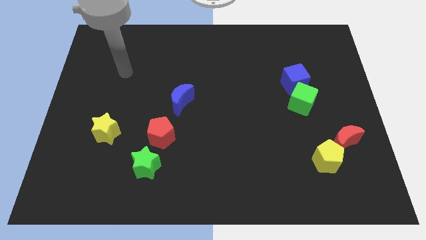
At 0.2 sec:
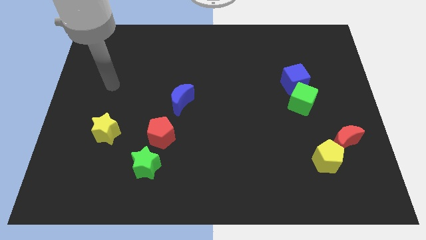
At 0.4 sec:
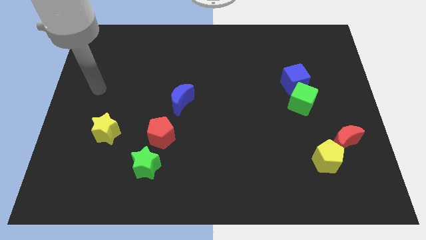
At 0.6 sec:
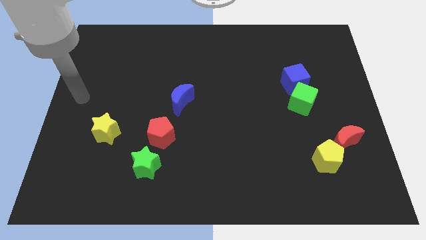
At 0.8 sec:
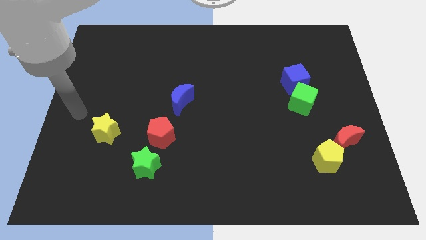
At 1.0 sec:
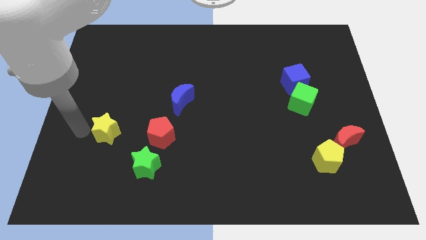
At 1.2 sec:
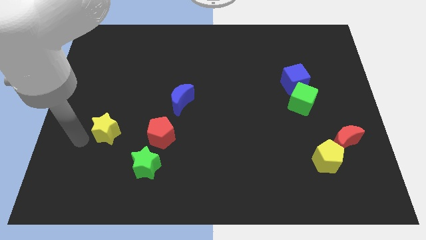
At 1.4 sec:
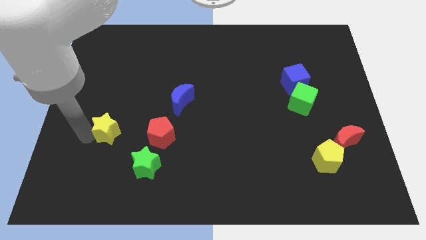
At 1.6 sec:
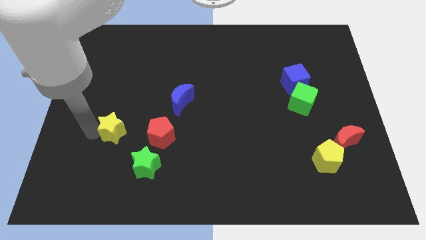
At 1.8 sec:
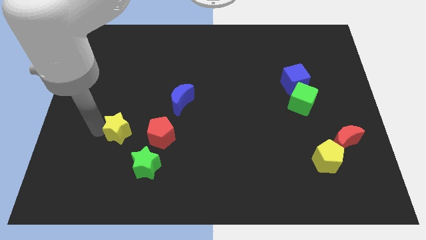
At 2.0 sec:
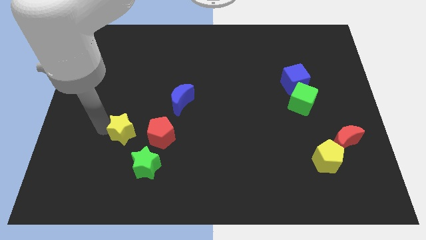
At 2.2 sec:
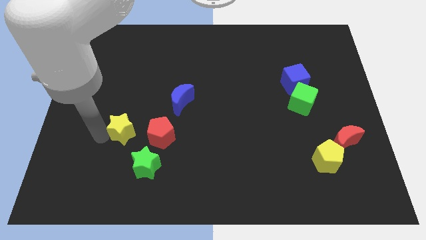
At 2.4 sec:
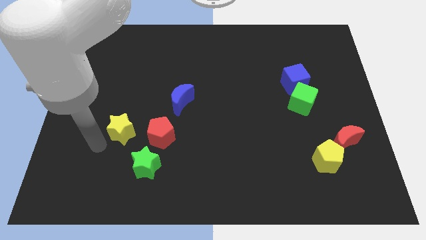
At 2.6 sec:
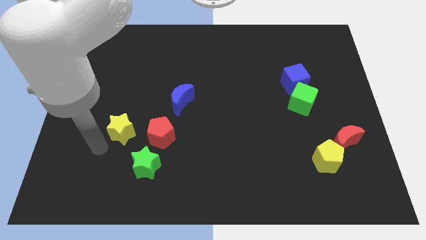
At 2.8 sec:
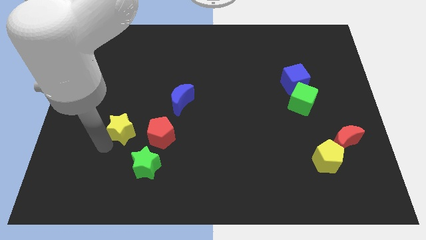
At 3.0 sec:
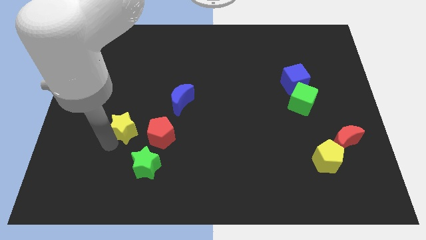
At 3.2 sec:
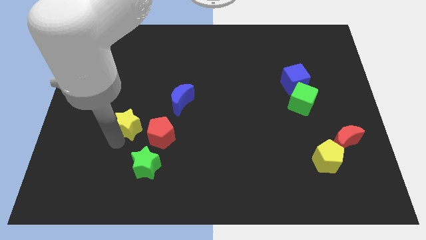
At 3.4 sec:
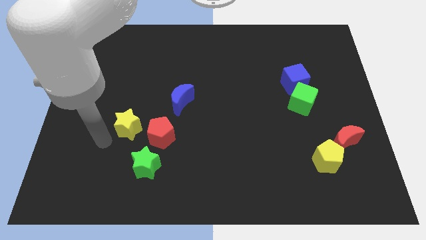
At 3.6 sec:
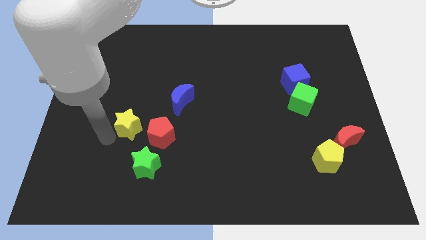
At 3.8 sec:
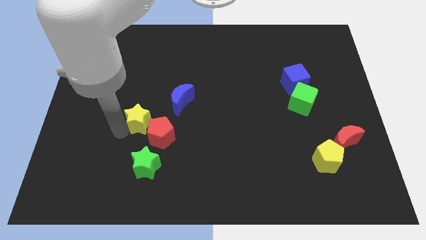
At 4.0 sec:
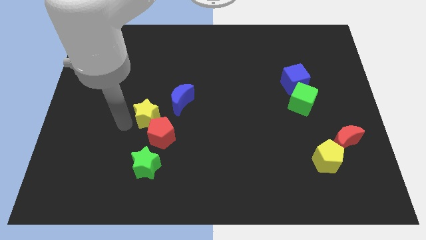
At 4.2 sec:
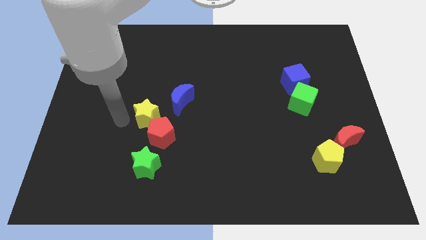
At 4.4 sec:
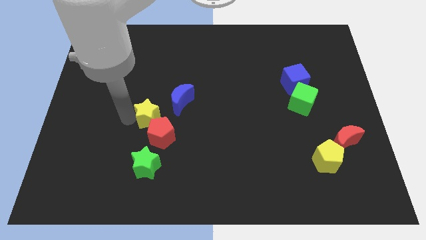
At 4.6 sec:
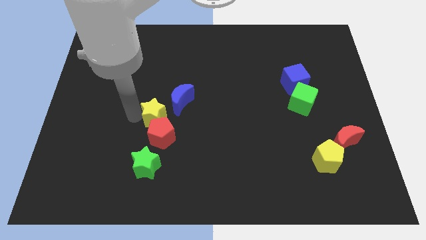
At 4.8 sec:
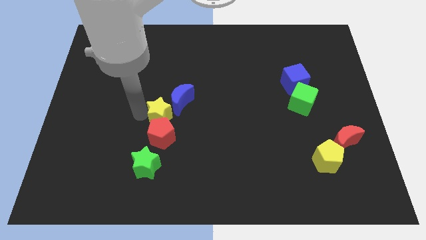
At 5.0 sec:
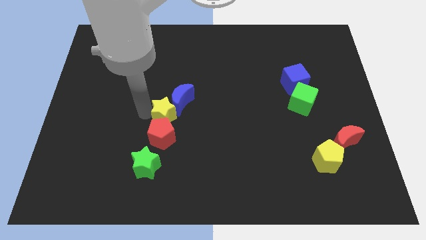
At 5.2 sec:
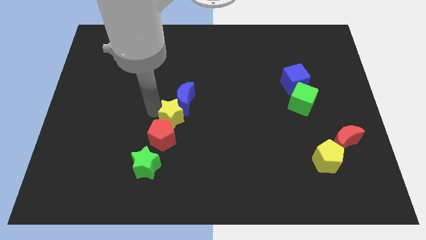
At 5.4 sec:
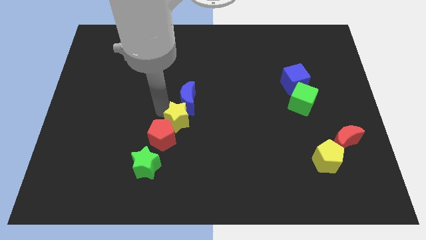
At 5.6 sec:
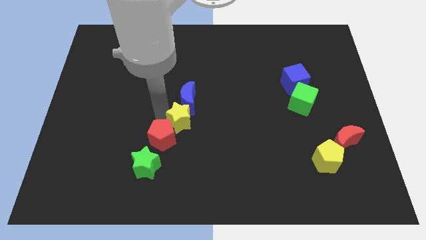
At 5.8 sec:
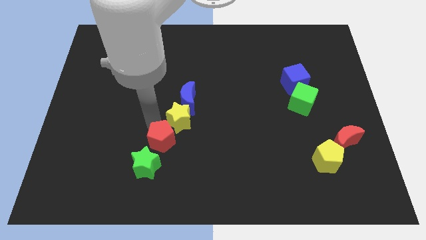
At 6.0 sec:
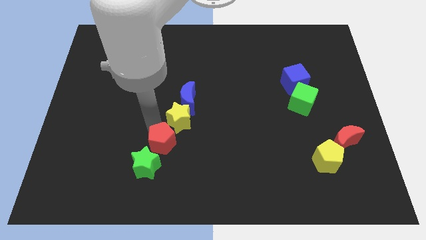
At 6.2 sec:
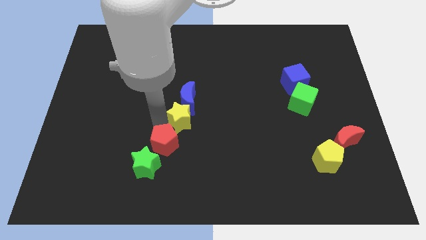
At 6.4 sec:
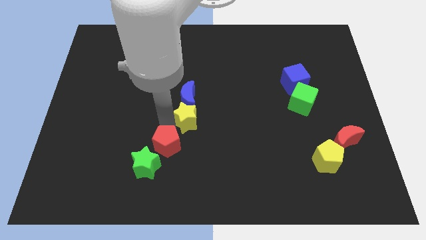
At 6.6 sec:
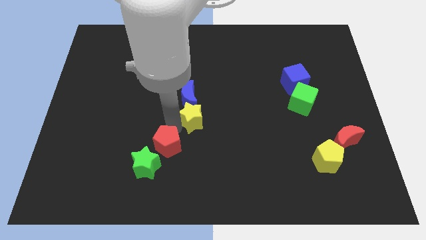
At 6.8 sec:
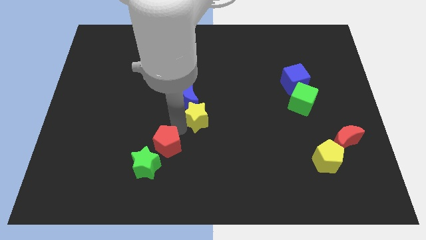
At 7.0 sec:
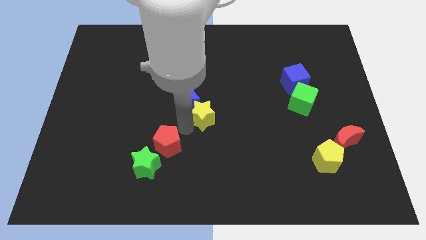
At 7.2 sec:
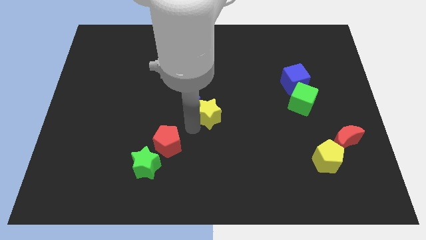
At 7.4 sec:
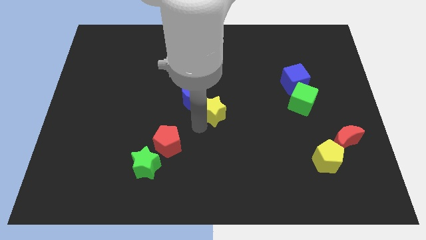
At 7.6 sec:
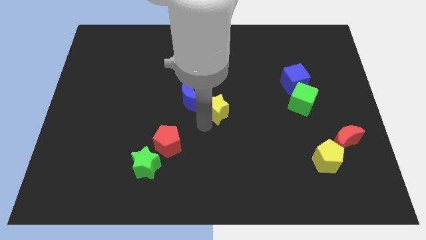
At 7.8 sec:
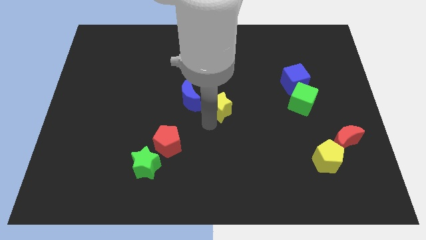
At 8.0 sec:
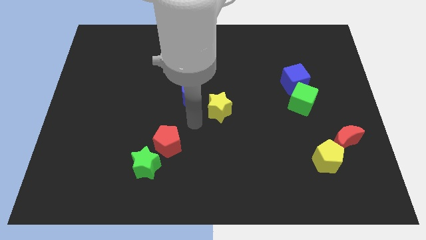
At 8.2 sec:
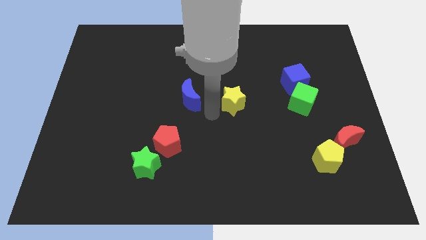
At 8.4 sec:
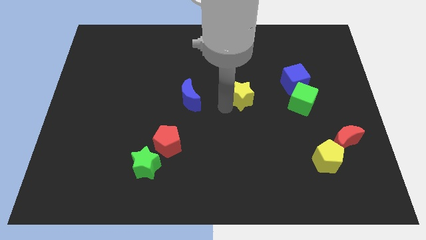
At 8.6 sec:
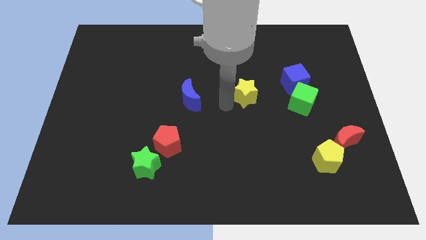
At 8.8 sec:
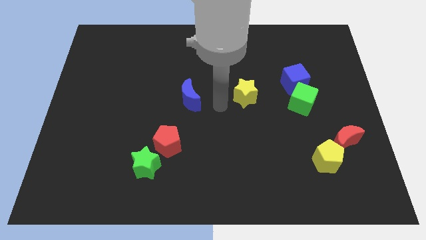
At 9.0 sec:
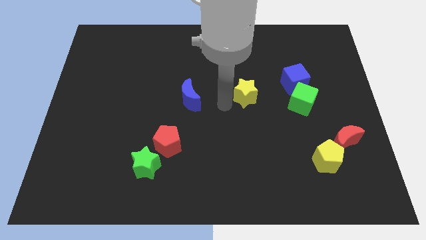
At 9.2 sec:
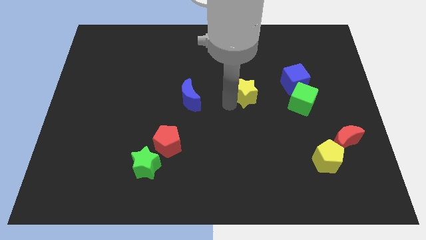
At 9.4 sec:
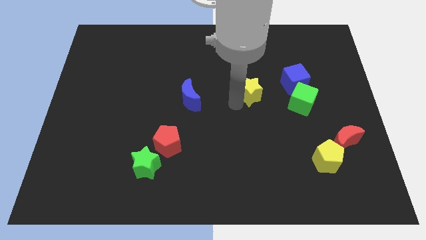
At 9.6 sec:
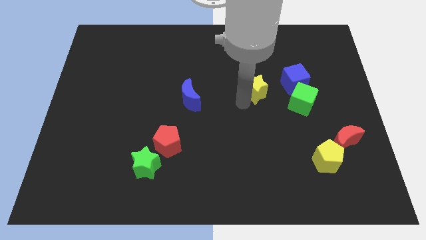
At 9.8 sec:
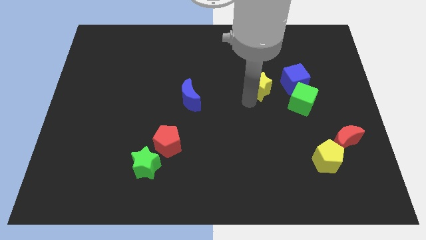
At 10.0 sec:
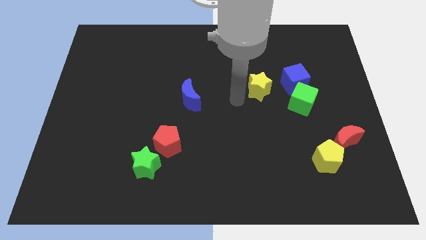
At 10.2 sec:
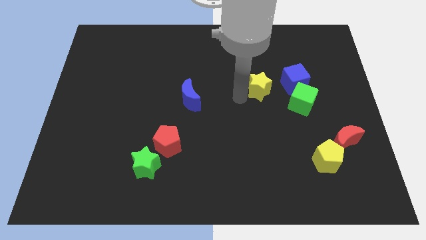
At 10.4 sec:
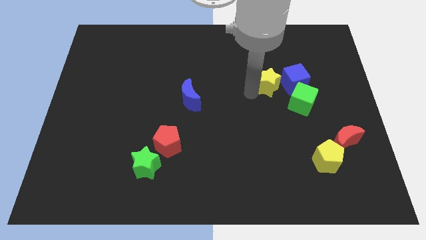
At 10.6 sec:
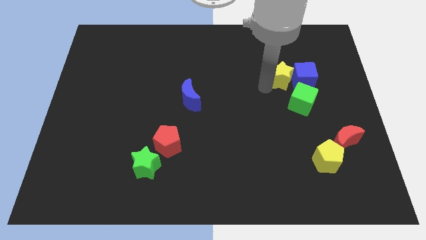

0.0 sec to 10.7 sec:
slide the yellow star to the top side of the green cube

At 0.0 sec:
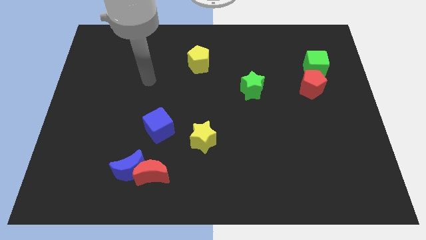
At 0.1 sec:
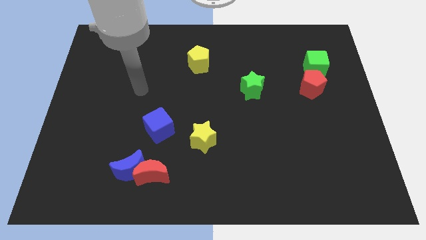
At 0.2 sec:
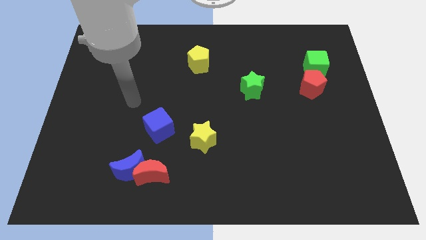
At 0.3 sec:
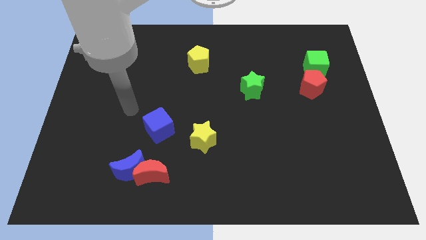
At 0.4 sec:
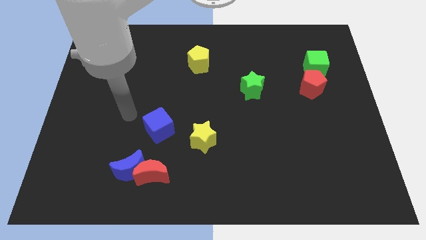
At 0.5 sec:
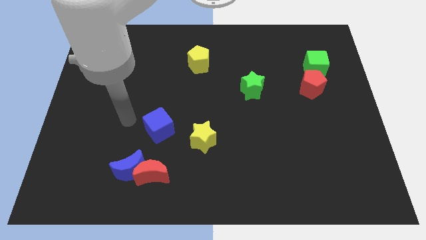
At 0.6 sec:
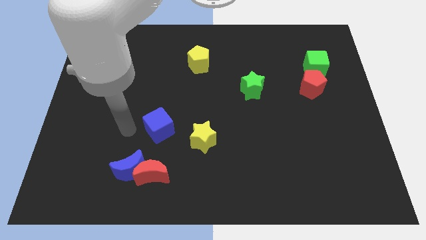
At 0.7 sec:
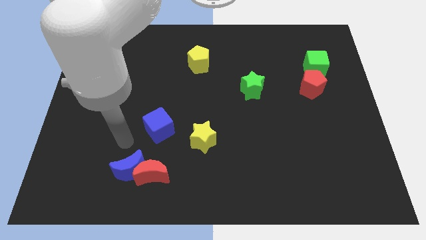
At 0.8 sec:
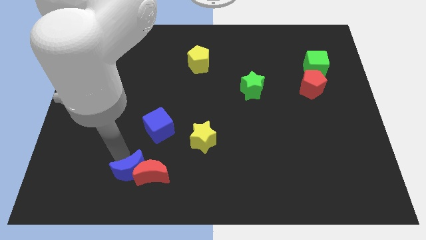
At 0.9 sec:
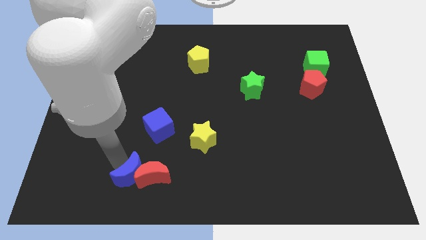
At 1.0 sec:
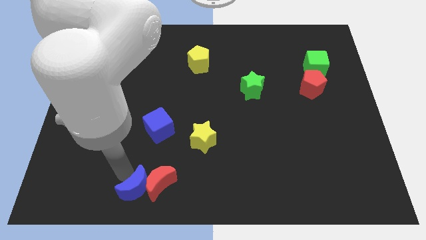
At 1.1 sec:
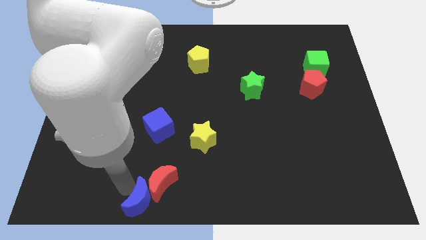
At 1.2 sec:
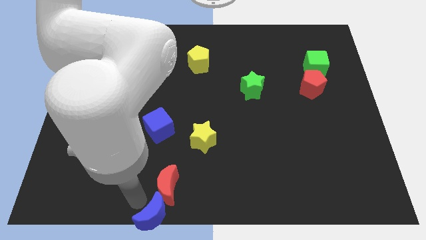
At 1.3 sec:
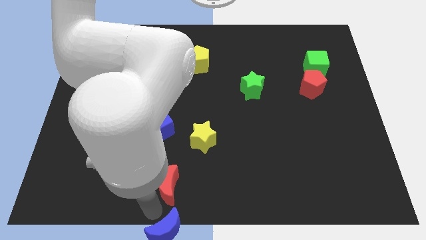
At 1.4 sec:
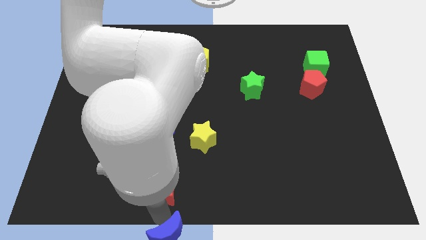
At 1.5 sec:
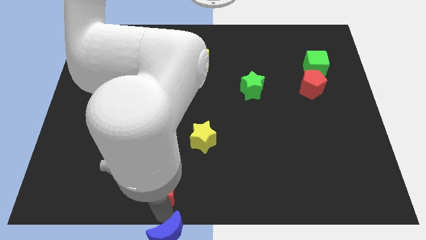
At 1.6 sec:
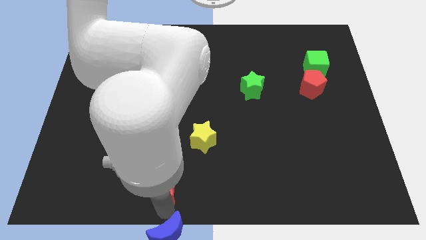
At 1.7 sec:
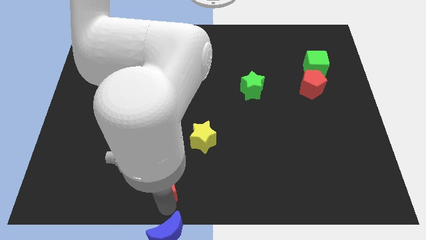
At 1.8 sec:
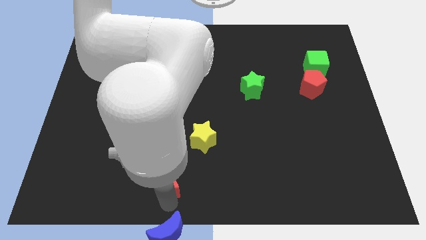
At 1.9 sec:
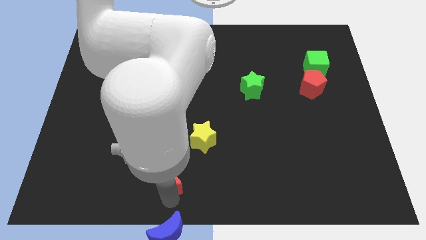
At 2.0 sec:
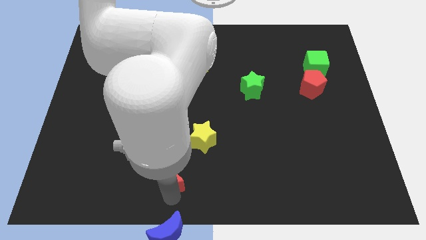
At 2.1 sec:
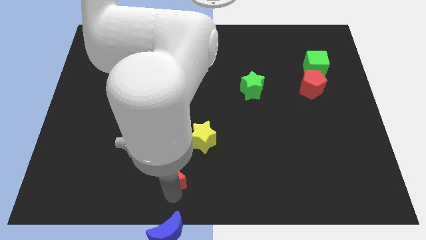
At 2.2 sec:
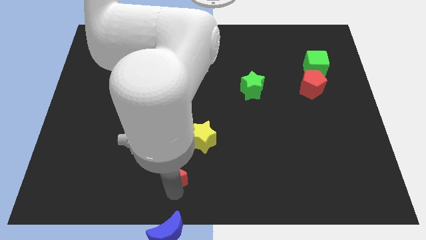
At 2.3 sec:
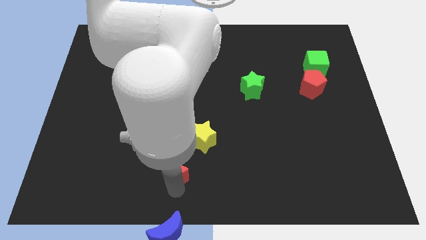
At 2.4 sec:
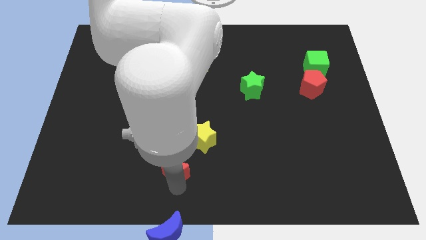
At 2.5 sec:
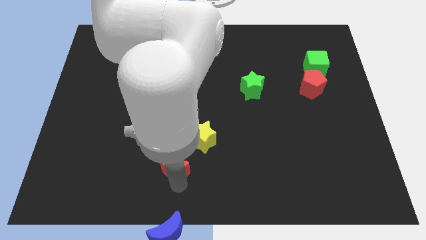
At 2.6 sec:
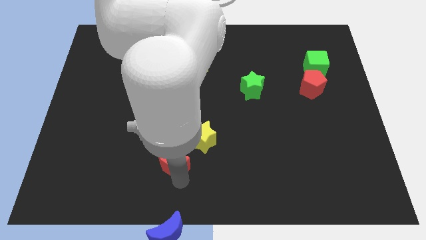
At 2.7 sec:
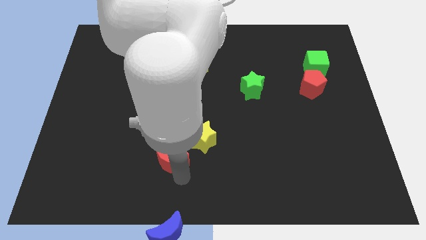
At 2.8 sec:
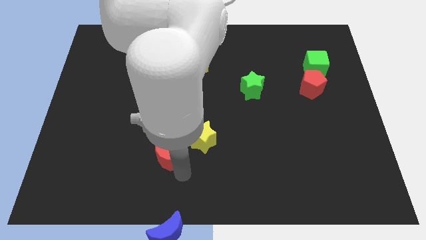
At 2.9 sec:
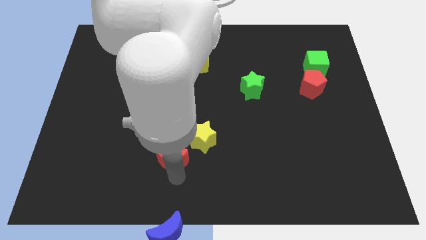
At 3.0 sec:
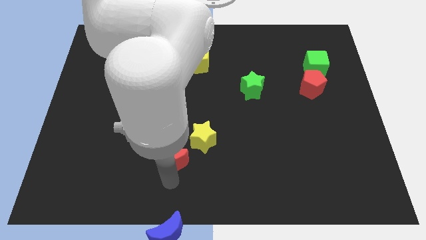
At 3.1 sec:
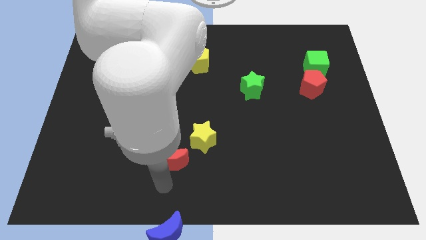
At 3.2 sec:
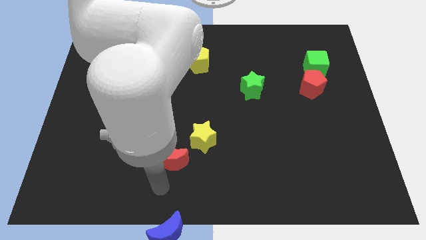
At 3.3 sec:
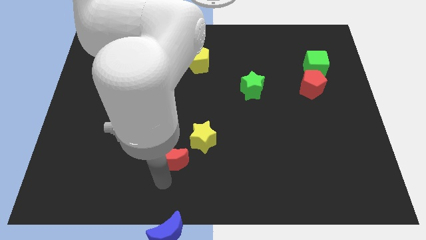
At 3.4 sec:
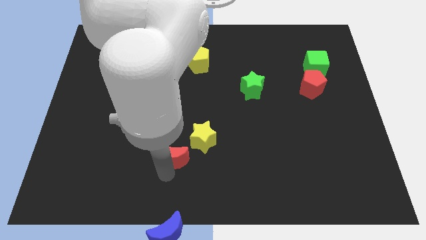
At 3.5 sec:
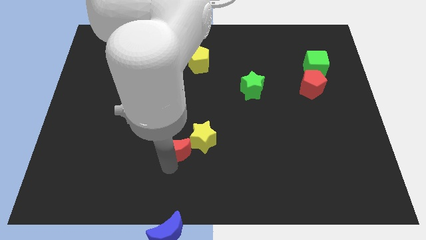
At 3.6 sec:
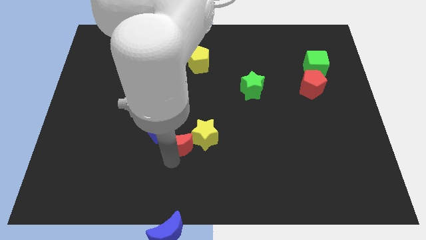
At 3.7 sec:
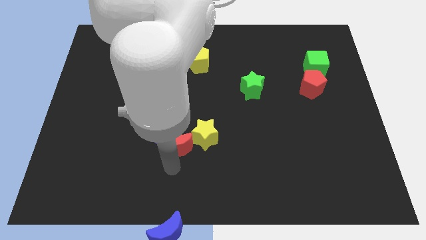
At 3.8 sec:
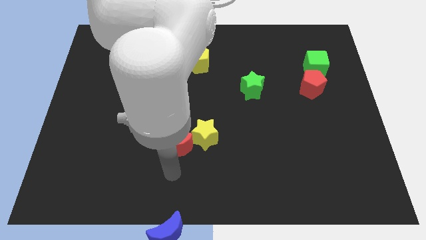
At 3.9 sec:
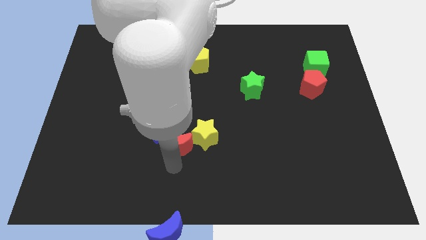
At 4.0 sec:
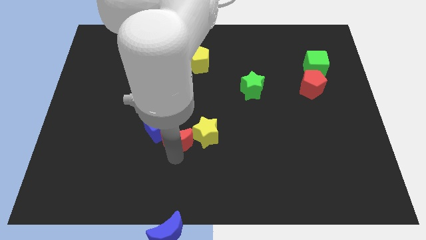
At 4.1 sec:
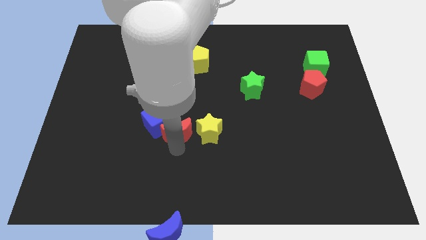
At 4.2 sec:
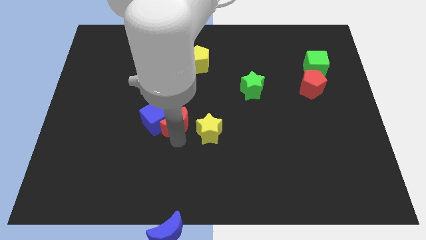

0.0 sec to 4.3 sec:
slide the red moon diagonally up and to the right of the blue cube
